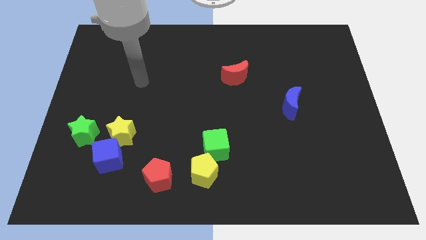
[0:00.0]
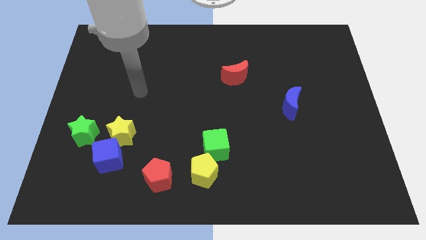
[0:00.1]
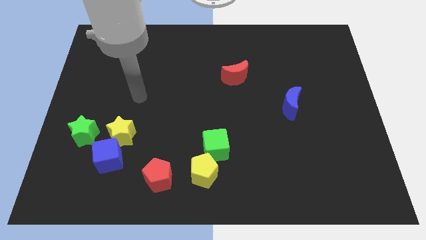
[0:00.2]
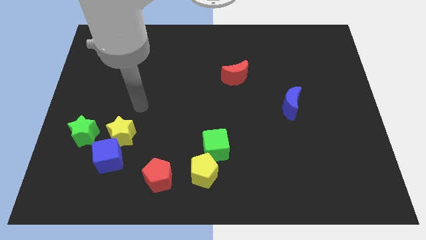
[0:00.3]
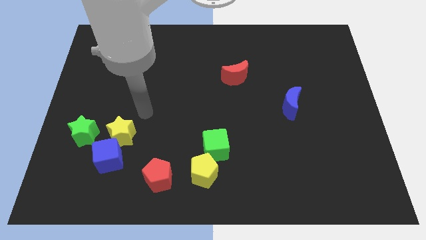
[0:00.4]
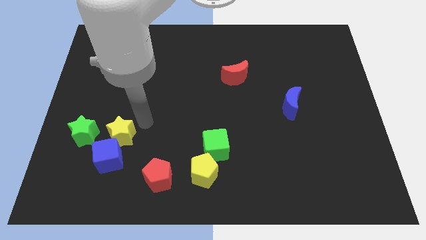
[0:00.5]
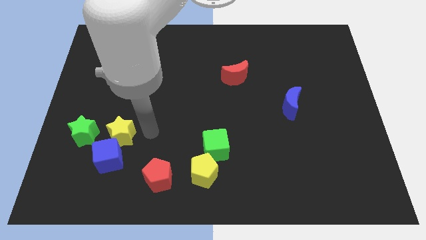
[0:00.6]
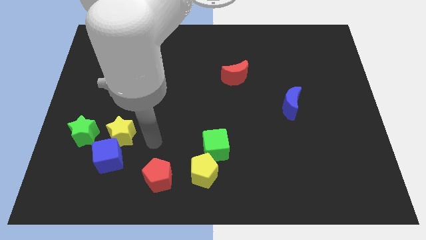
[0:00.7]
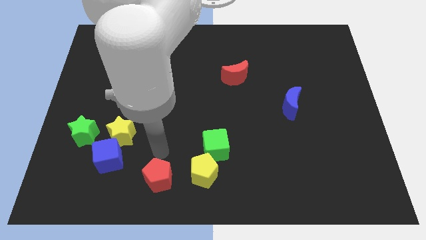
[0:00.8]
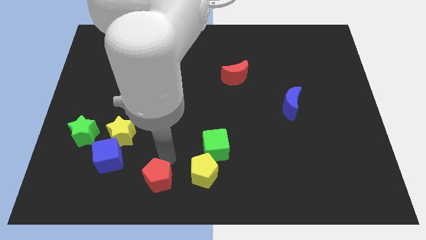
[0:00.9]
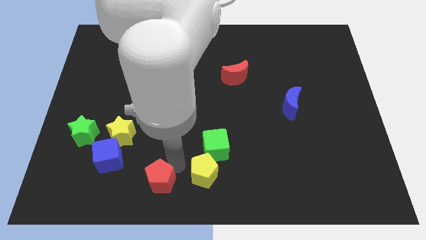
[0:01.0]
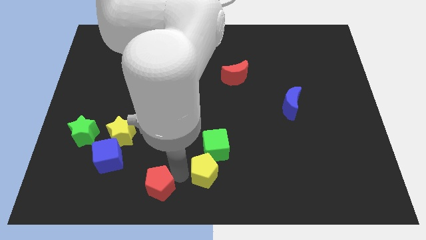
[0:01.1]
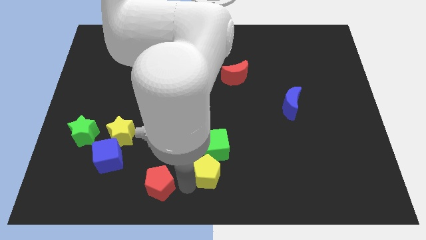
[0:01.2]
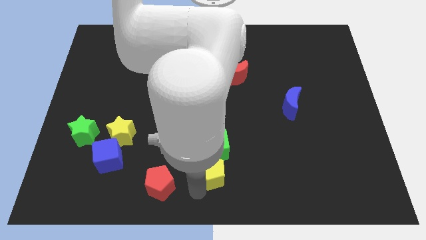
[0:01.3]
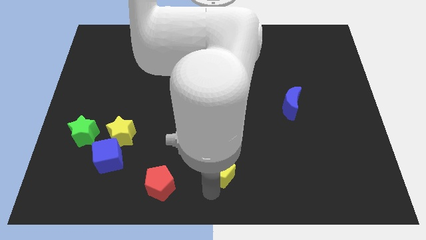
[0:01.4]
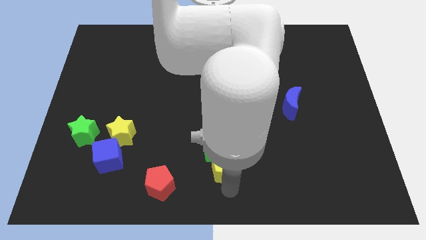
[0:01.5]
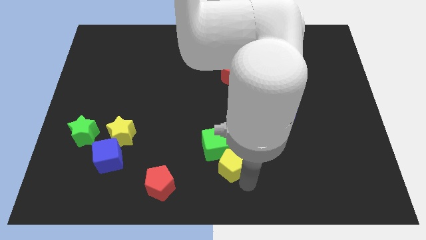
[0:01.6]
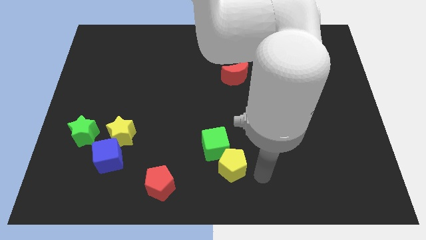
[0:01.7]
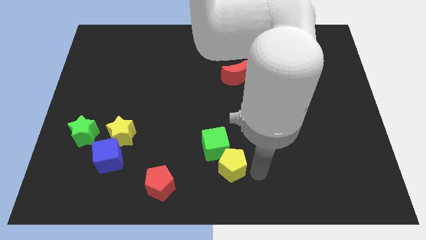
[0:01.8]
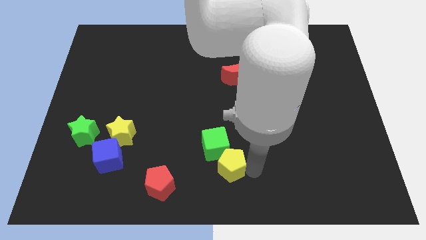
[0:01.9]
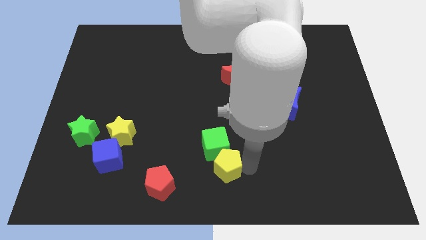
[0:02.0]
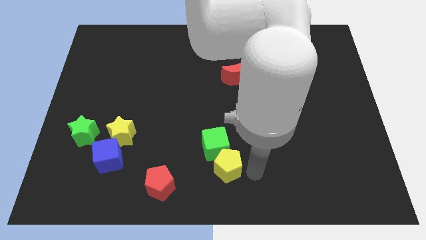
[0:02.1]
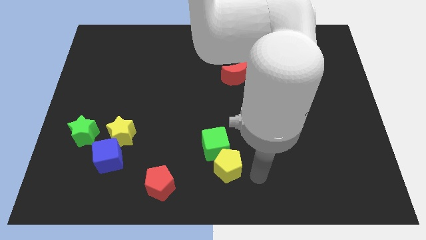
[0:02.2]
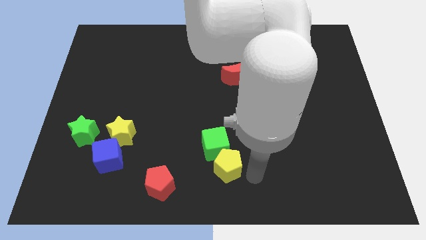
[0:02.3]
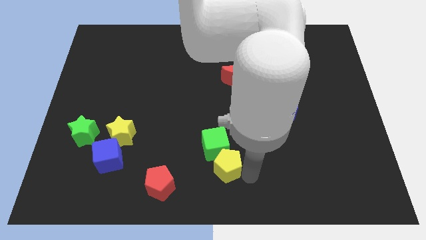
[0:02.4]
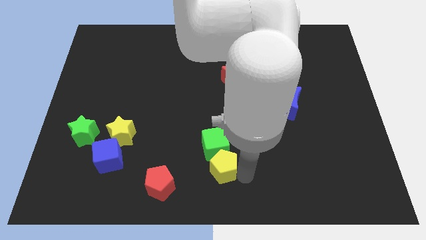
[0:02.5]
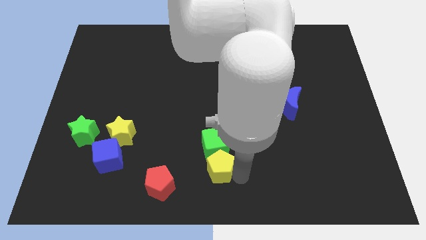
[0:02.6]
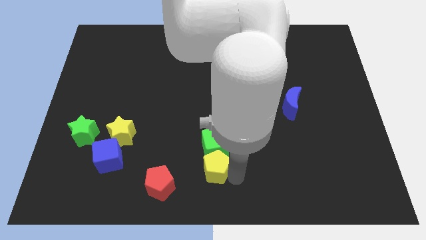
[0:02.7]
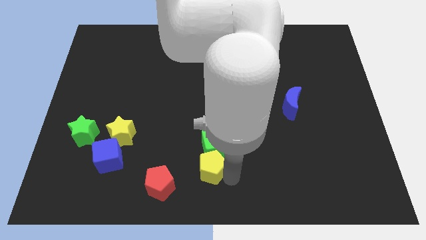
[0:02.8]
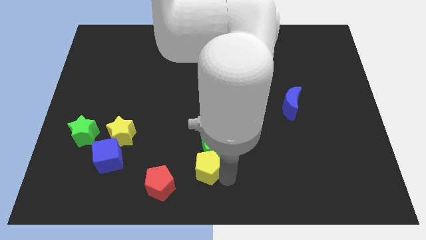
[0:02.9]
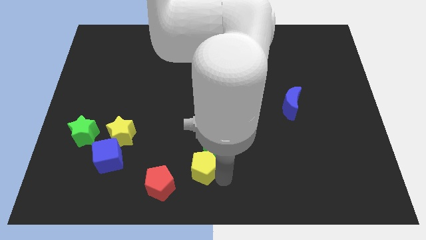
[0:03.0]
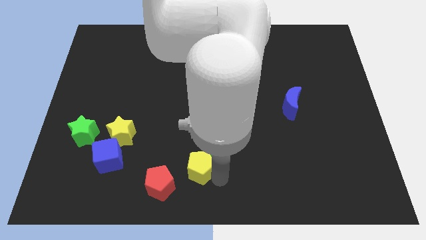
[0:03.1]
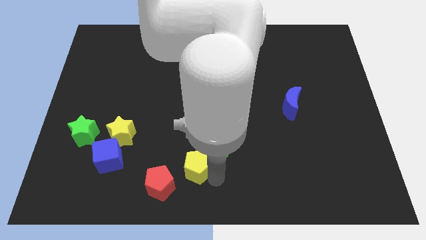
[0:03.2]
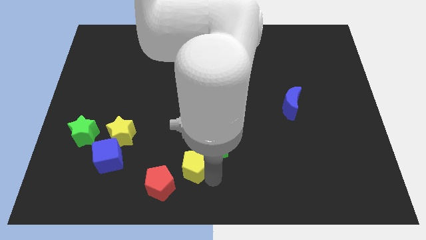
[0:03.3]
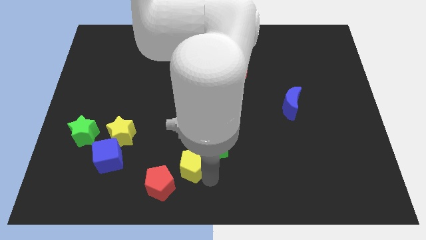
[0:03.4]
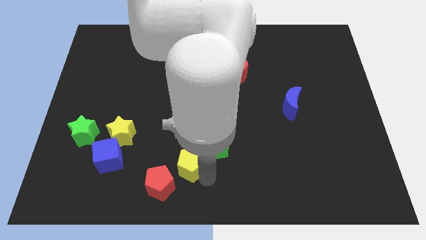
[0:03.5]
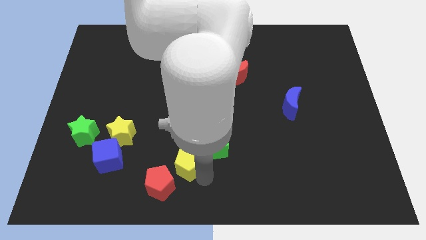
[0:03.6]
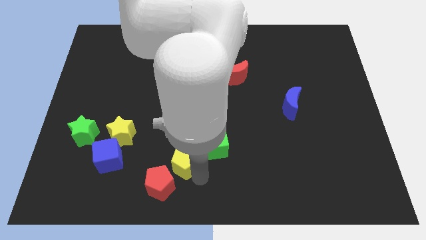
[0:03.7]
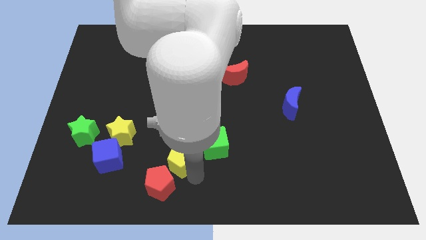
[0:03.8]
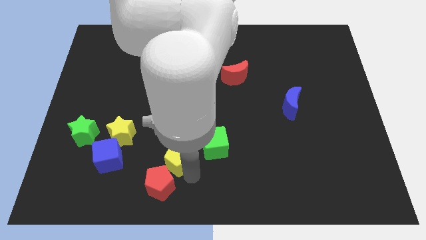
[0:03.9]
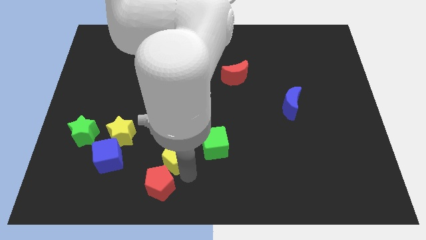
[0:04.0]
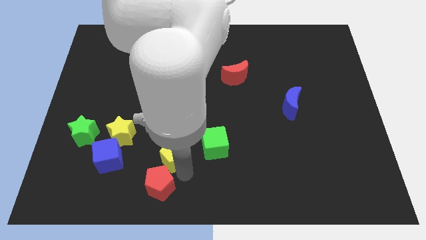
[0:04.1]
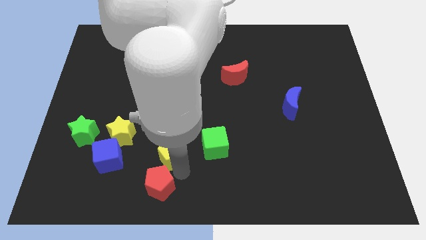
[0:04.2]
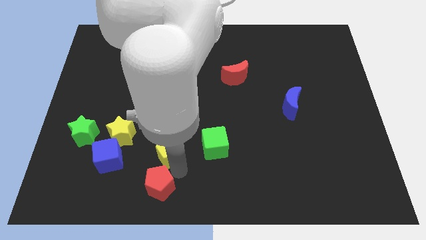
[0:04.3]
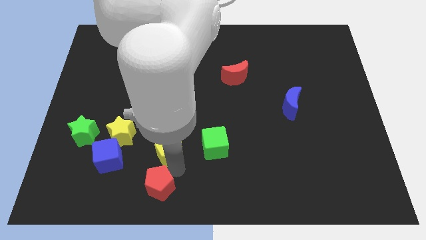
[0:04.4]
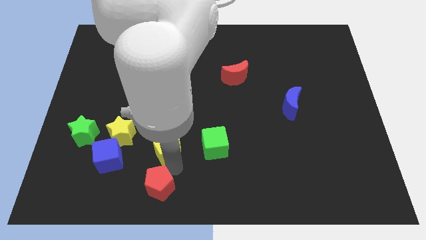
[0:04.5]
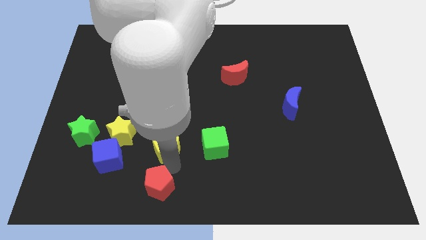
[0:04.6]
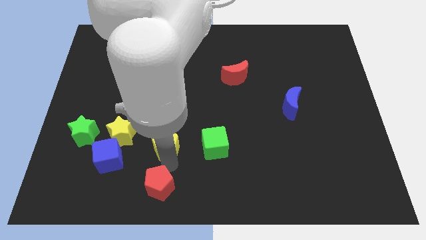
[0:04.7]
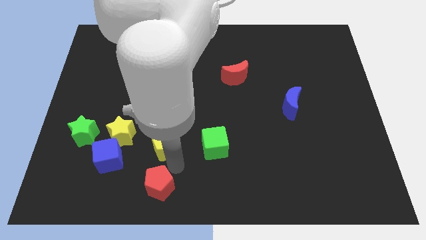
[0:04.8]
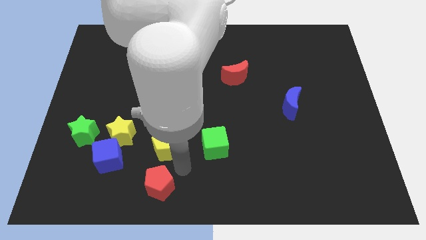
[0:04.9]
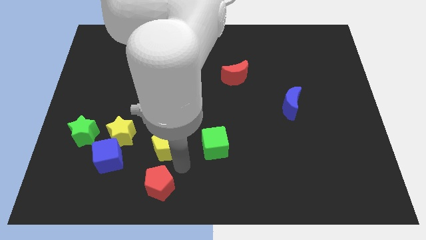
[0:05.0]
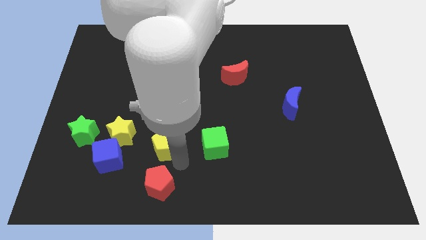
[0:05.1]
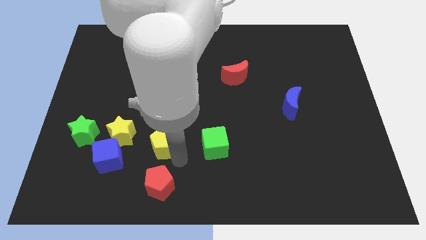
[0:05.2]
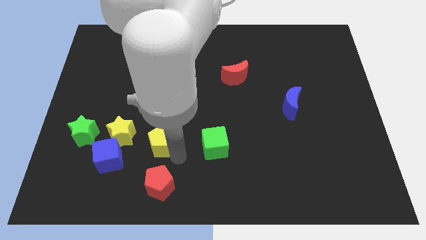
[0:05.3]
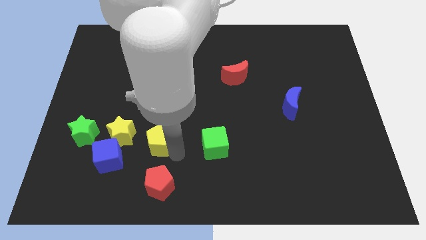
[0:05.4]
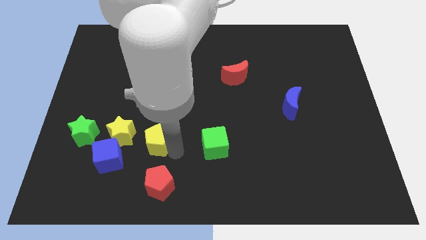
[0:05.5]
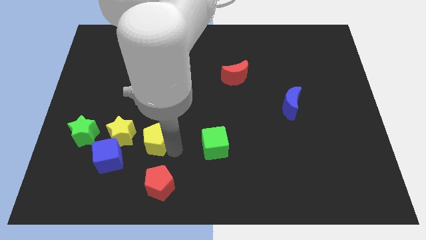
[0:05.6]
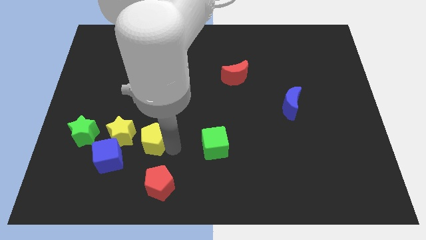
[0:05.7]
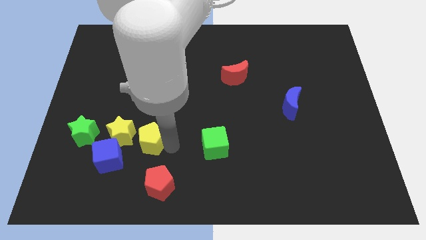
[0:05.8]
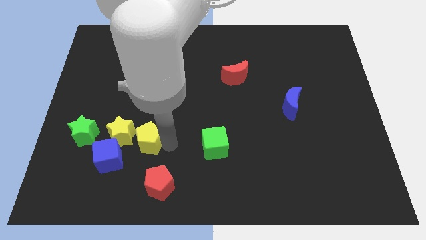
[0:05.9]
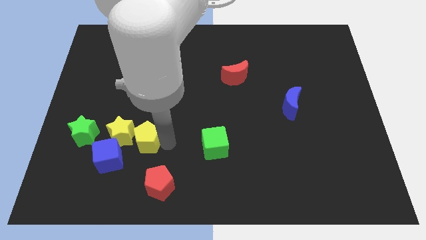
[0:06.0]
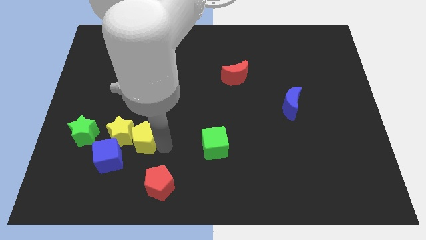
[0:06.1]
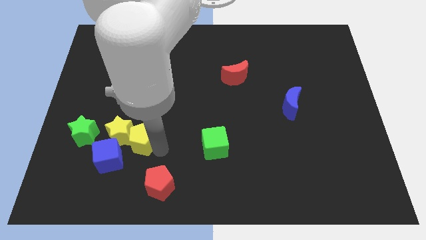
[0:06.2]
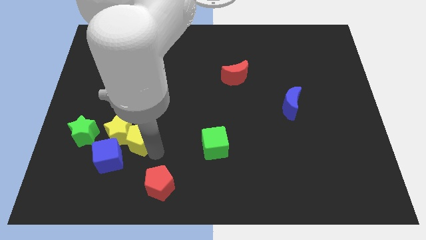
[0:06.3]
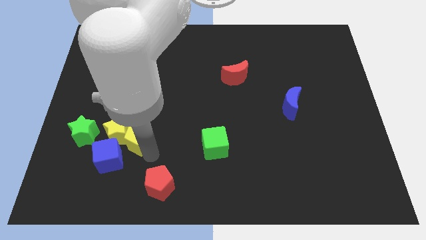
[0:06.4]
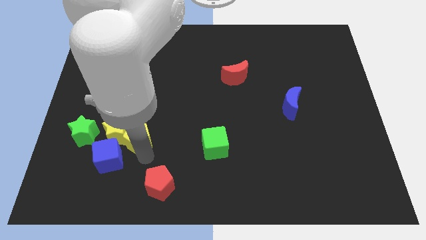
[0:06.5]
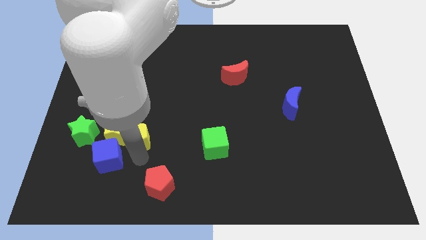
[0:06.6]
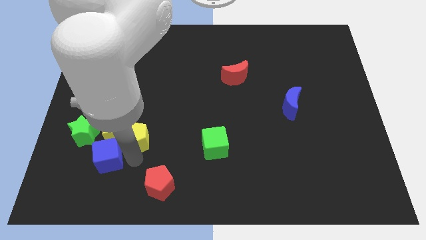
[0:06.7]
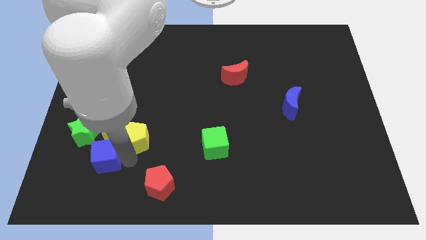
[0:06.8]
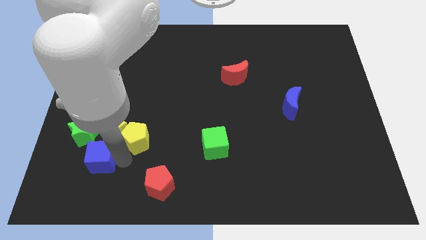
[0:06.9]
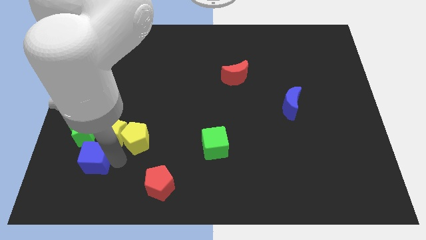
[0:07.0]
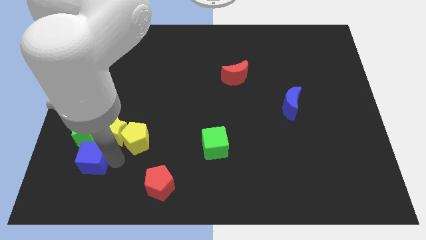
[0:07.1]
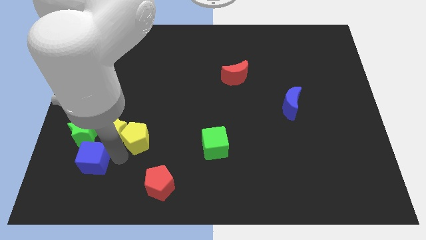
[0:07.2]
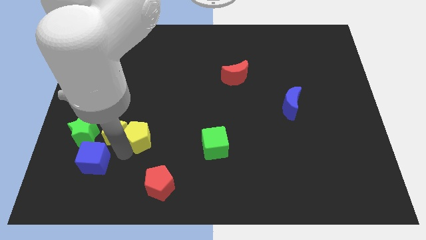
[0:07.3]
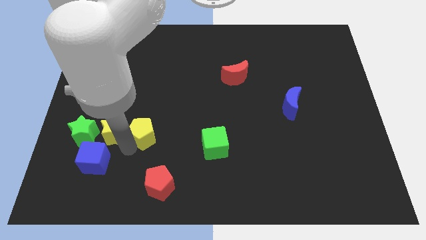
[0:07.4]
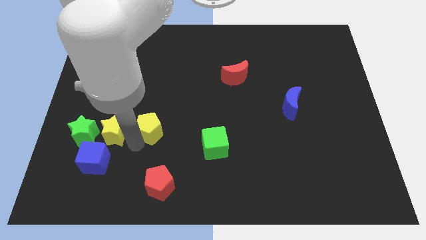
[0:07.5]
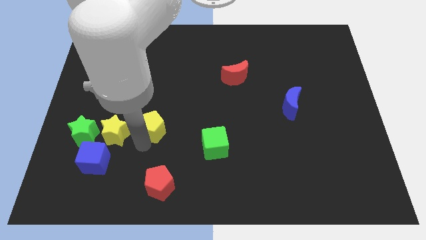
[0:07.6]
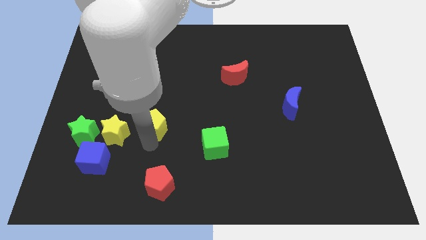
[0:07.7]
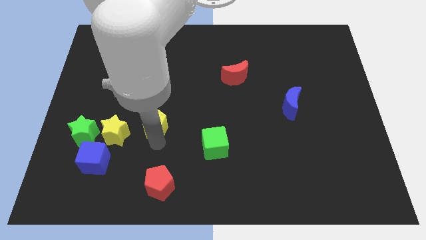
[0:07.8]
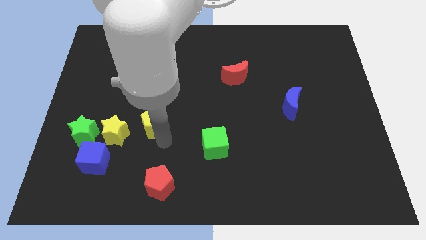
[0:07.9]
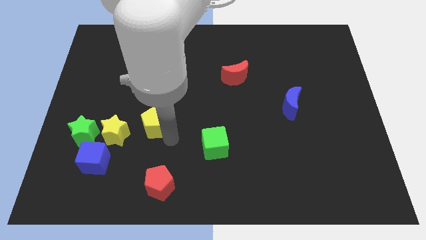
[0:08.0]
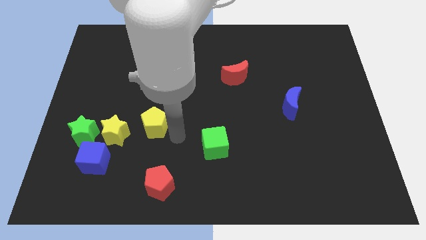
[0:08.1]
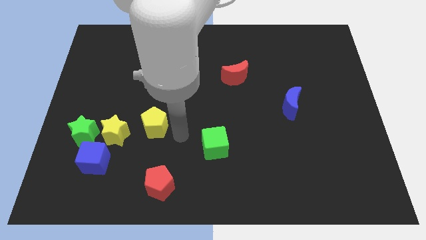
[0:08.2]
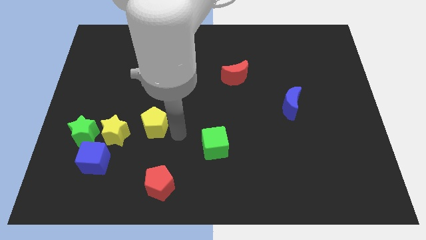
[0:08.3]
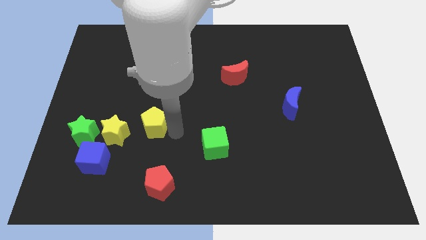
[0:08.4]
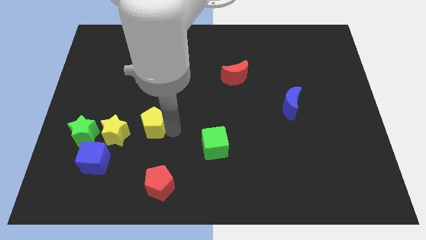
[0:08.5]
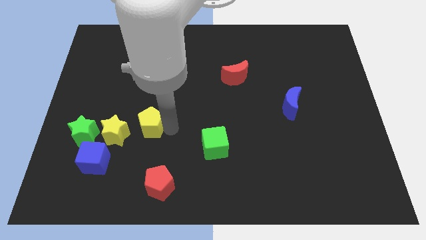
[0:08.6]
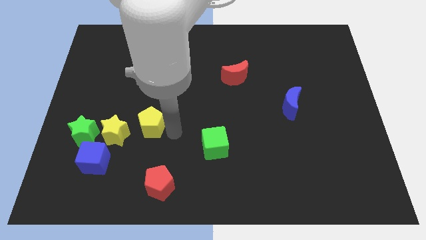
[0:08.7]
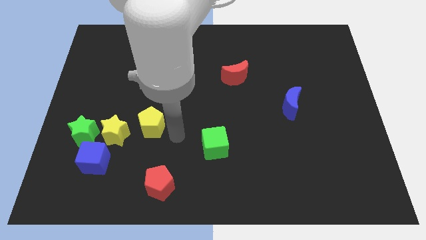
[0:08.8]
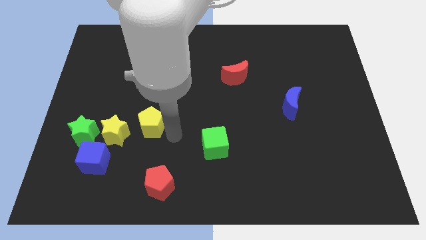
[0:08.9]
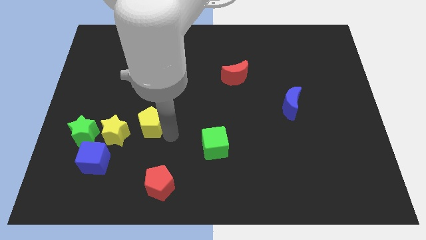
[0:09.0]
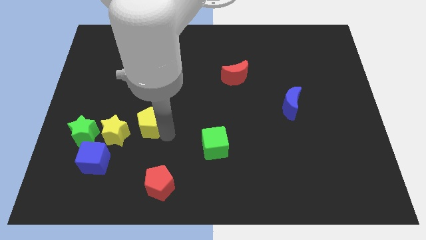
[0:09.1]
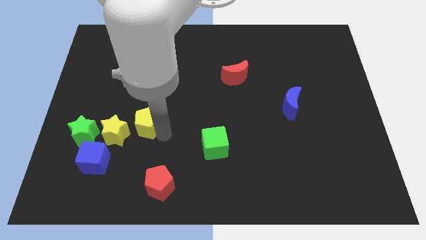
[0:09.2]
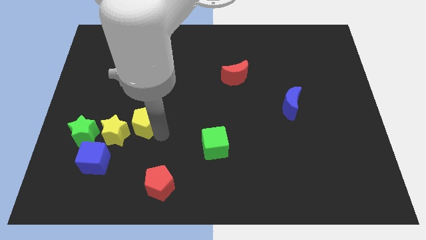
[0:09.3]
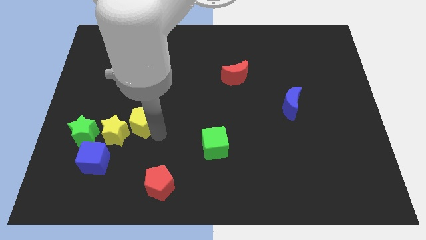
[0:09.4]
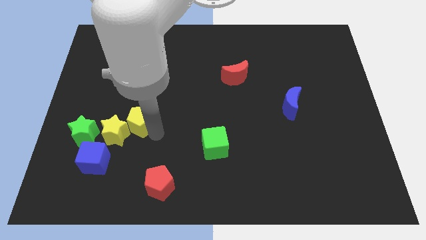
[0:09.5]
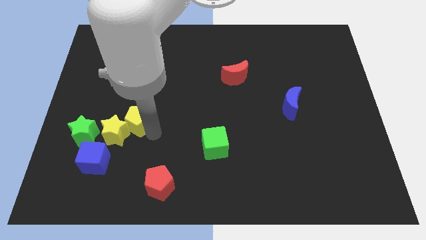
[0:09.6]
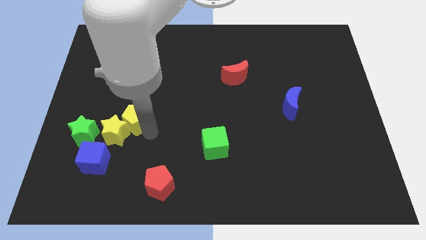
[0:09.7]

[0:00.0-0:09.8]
push the yellow pentagon up and then to the left
